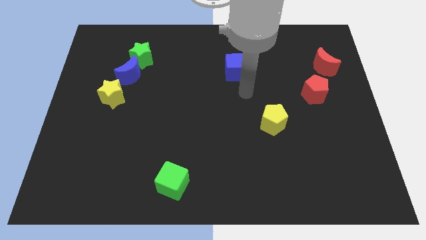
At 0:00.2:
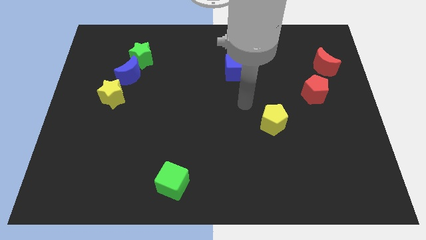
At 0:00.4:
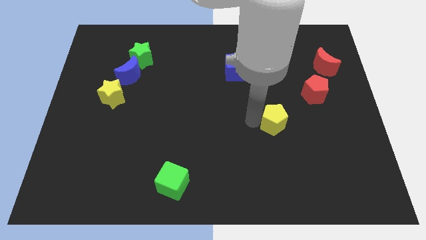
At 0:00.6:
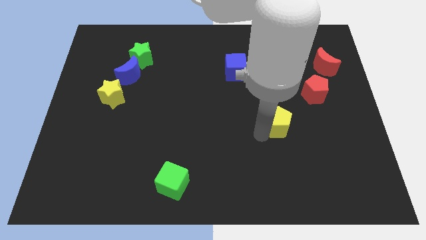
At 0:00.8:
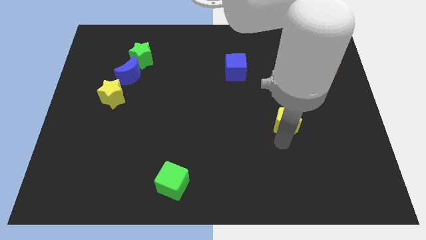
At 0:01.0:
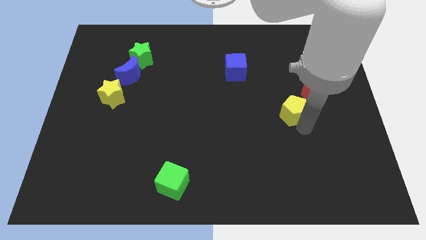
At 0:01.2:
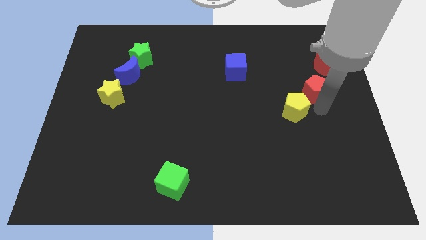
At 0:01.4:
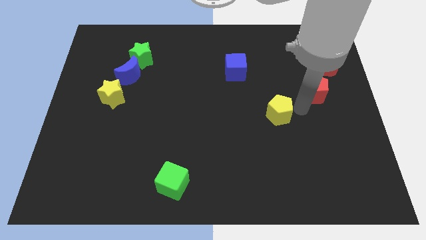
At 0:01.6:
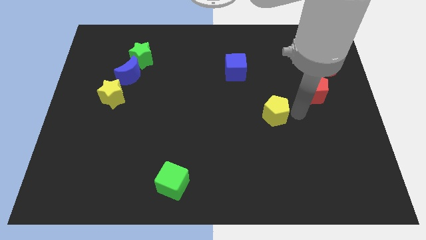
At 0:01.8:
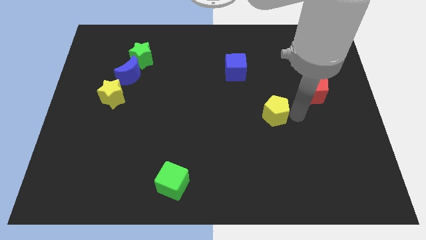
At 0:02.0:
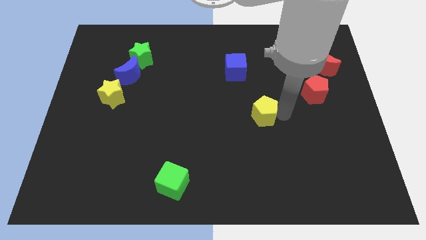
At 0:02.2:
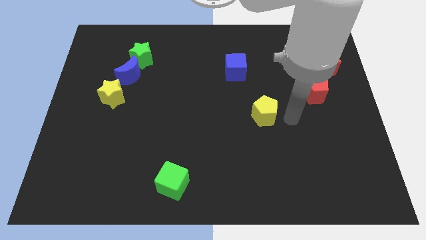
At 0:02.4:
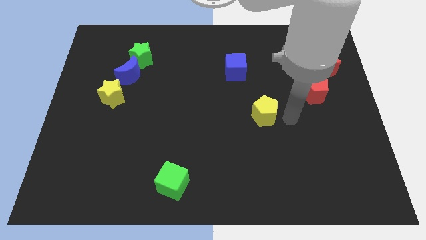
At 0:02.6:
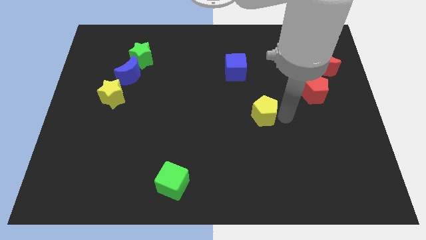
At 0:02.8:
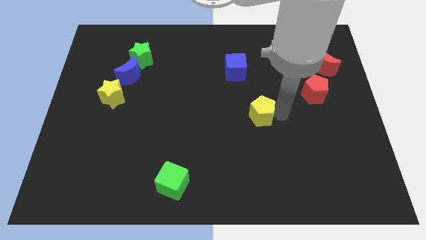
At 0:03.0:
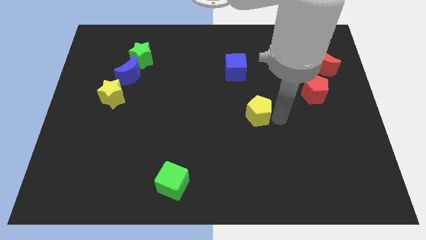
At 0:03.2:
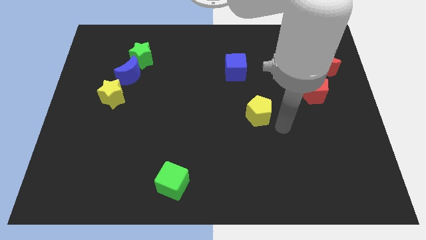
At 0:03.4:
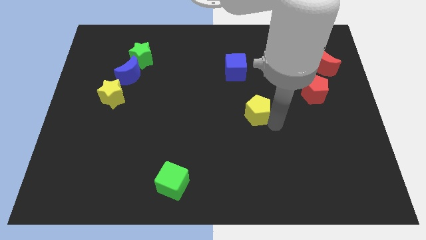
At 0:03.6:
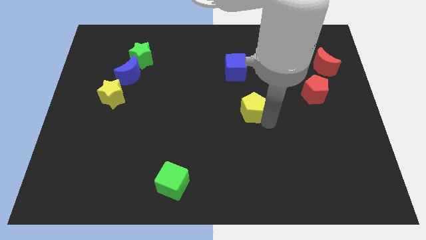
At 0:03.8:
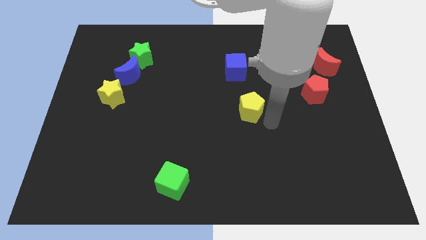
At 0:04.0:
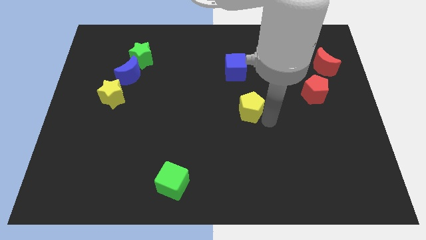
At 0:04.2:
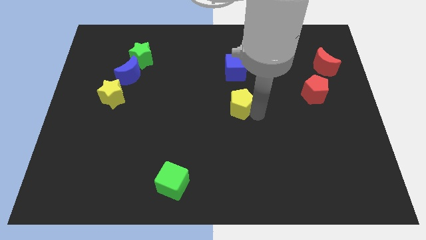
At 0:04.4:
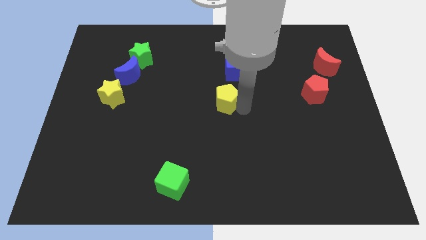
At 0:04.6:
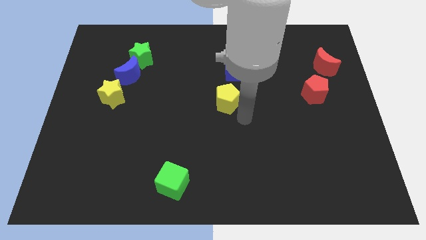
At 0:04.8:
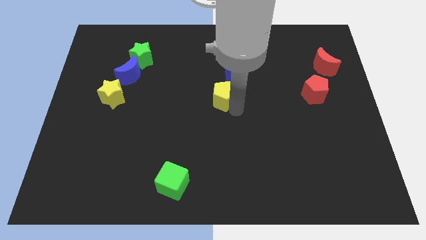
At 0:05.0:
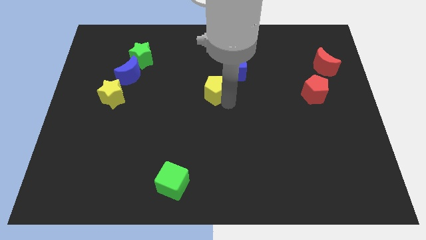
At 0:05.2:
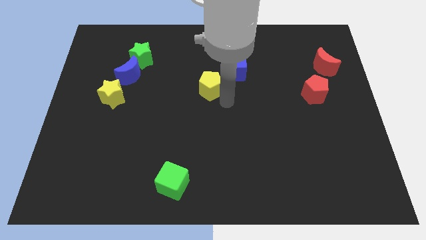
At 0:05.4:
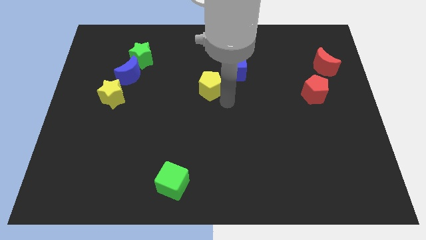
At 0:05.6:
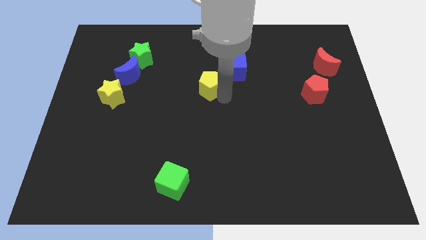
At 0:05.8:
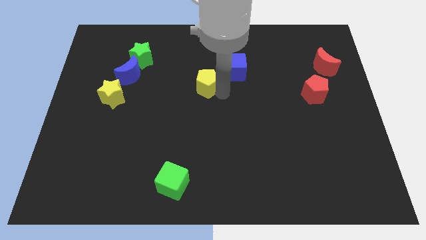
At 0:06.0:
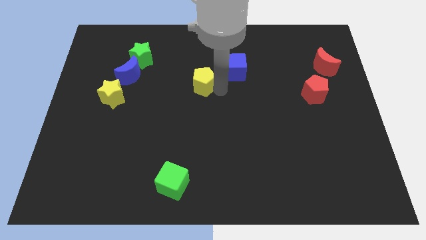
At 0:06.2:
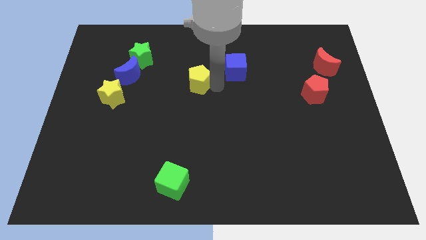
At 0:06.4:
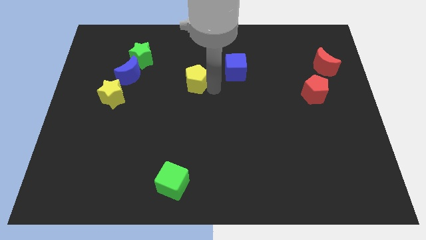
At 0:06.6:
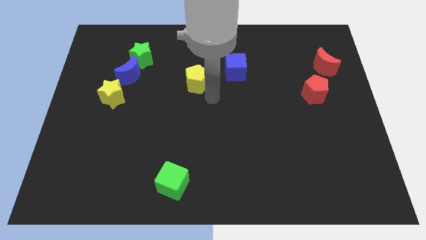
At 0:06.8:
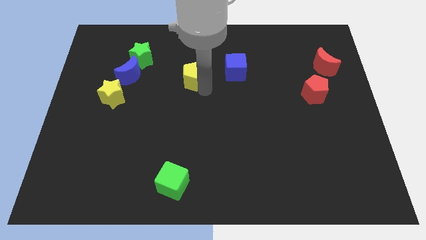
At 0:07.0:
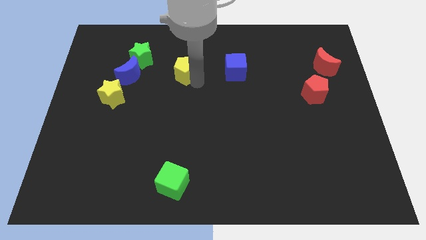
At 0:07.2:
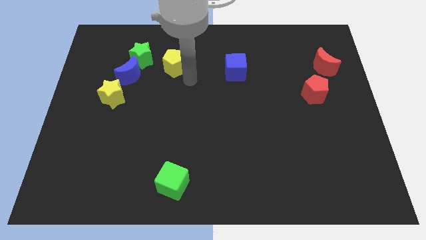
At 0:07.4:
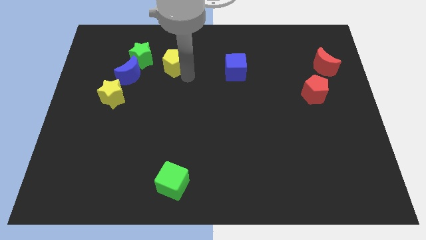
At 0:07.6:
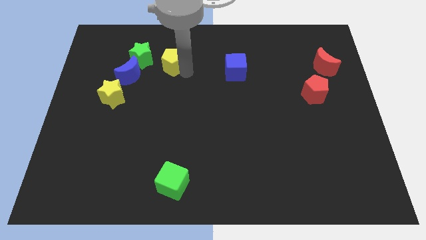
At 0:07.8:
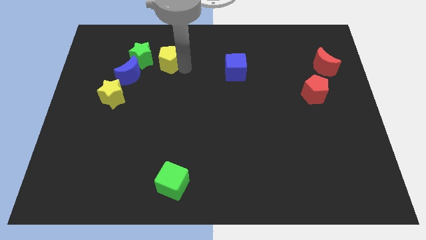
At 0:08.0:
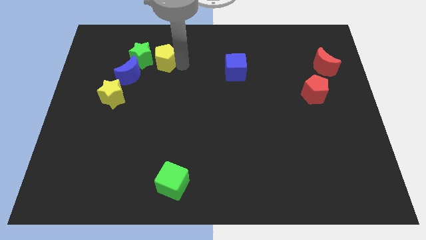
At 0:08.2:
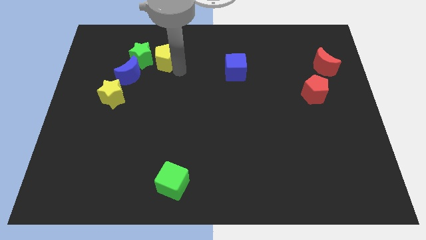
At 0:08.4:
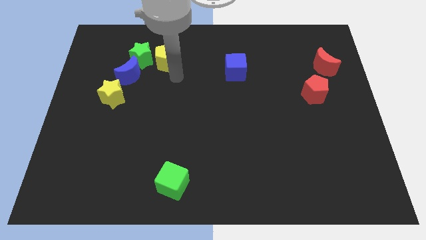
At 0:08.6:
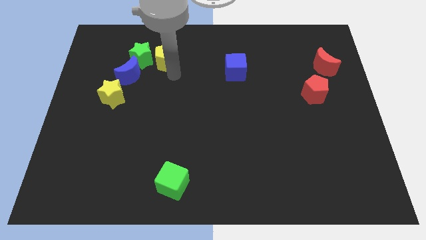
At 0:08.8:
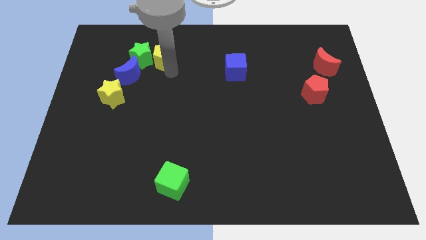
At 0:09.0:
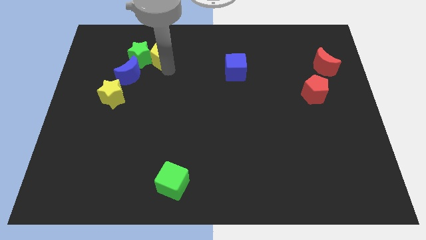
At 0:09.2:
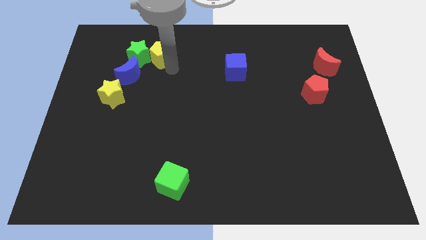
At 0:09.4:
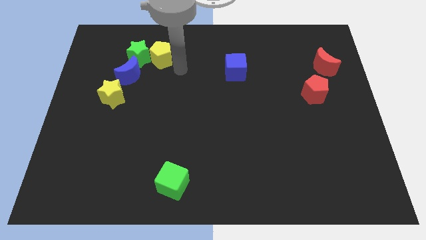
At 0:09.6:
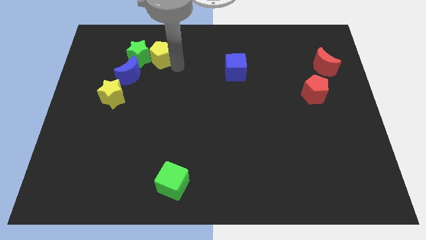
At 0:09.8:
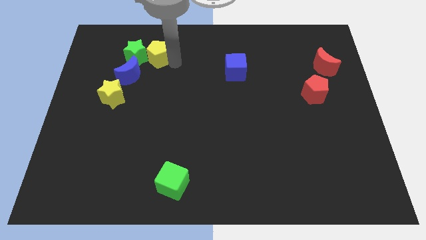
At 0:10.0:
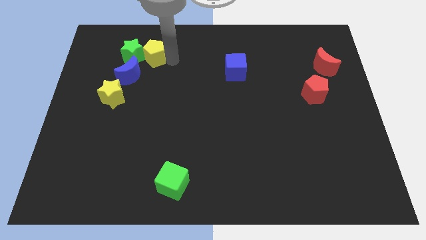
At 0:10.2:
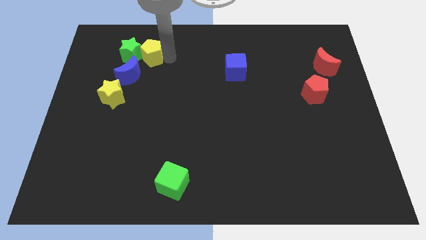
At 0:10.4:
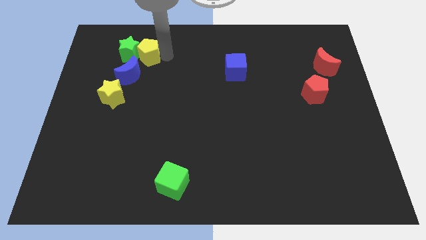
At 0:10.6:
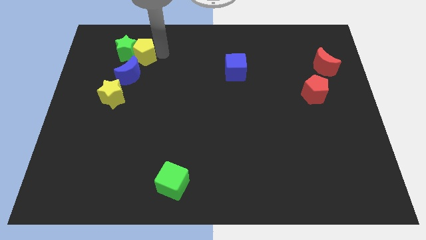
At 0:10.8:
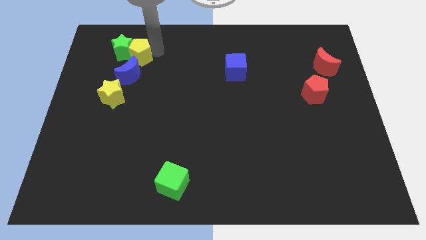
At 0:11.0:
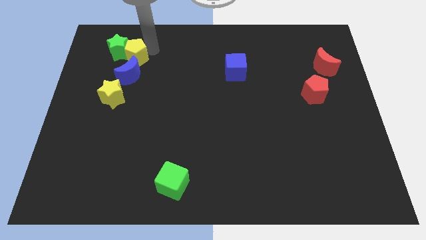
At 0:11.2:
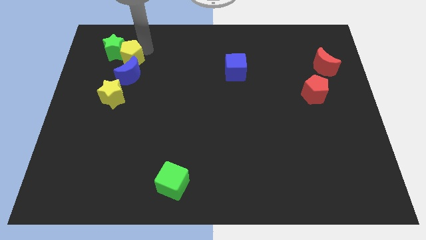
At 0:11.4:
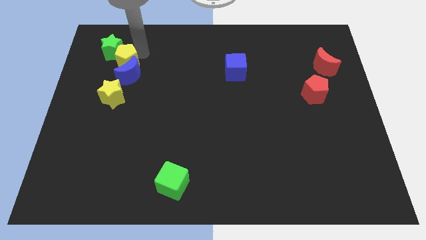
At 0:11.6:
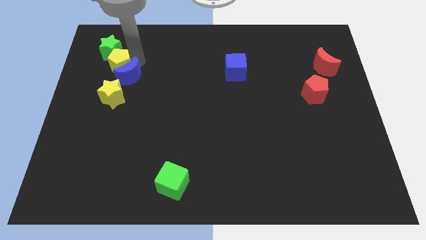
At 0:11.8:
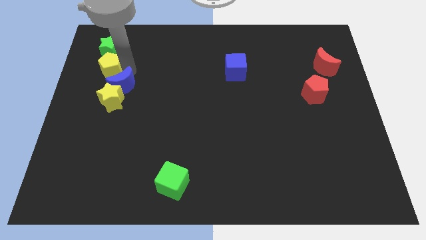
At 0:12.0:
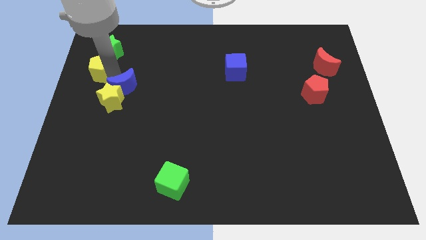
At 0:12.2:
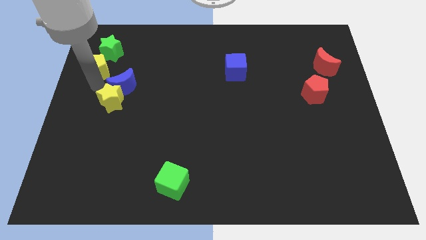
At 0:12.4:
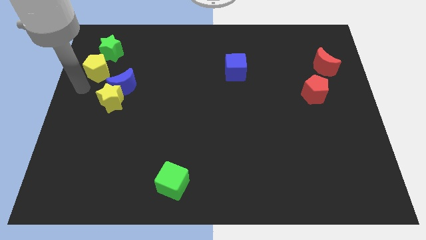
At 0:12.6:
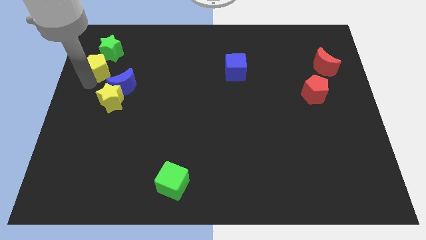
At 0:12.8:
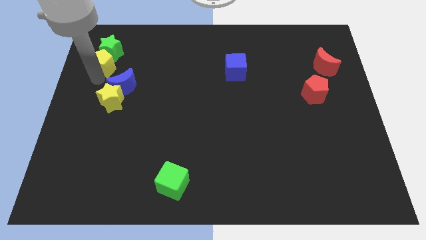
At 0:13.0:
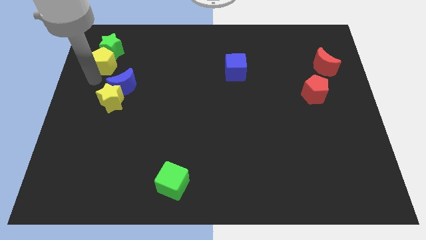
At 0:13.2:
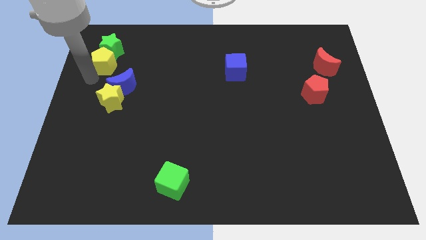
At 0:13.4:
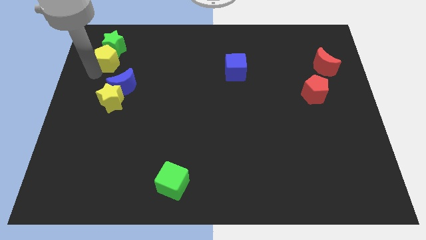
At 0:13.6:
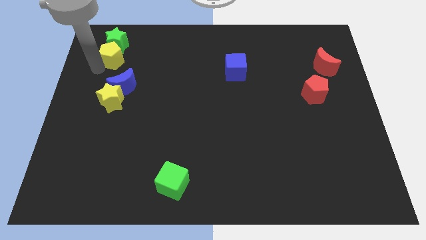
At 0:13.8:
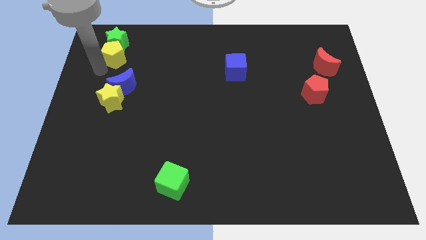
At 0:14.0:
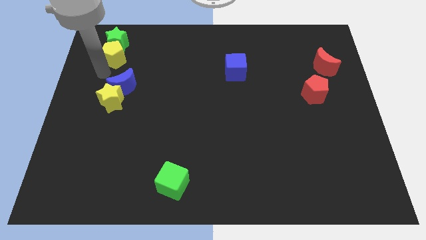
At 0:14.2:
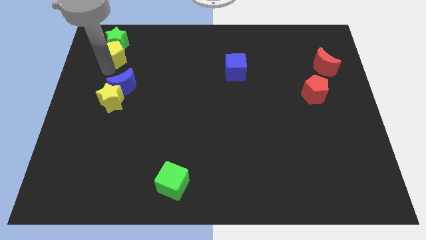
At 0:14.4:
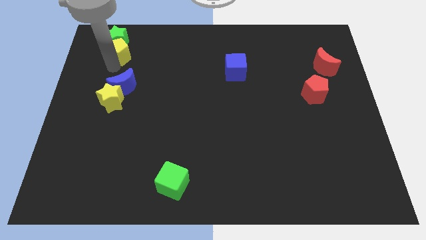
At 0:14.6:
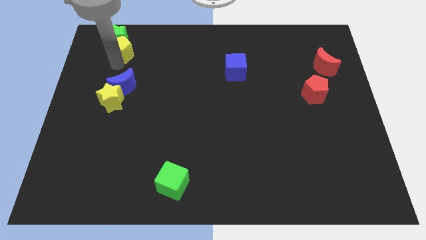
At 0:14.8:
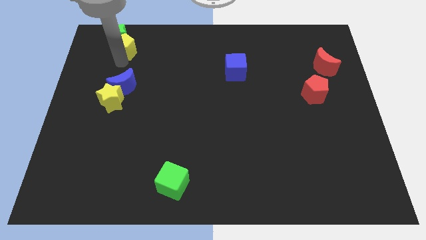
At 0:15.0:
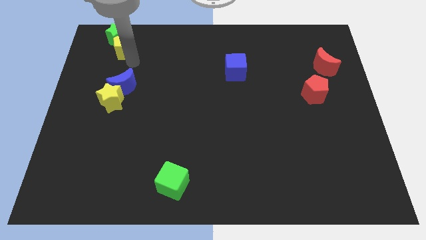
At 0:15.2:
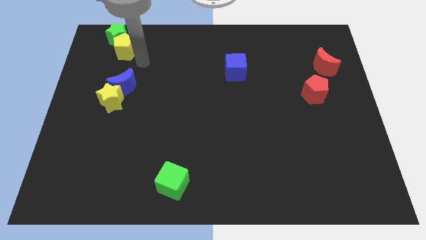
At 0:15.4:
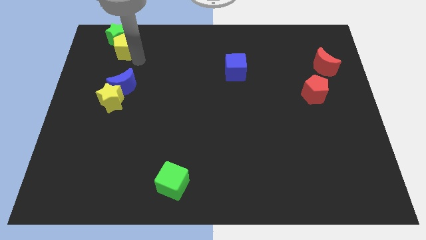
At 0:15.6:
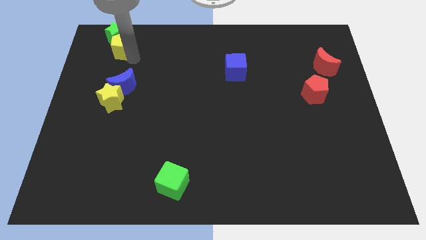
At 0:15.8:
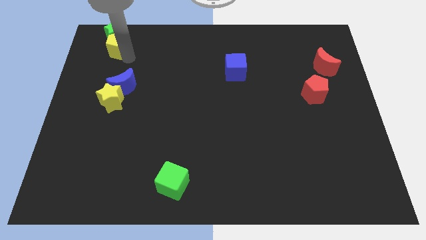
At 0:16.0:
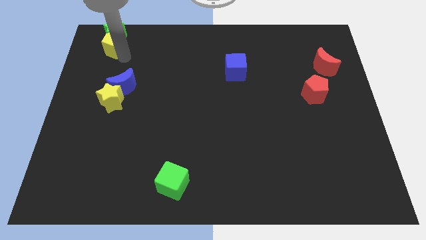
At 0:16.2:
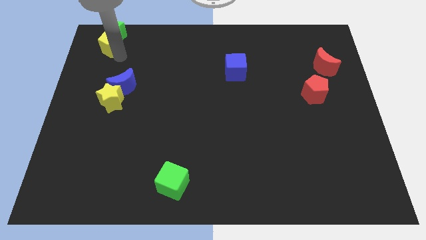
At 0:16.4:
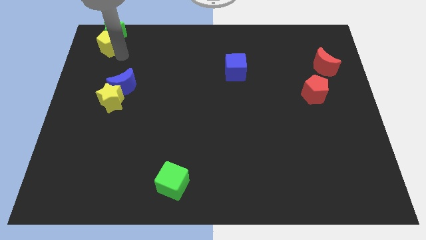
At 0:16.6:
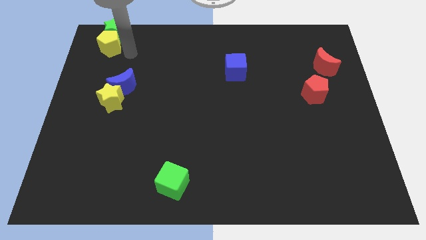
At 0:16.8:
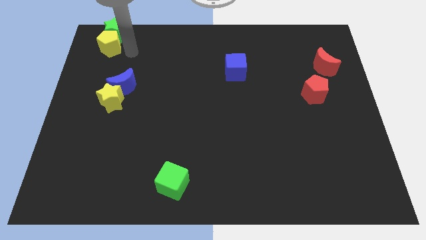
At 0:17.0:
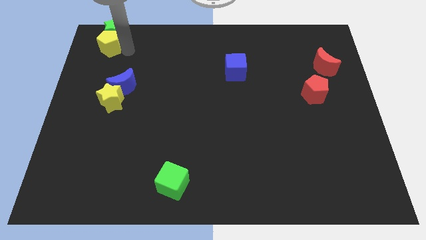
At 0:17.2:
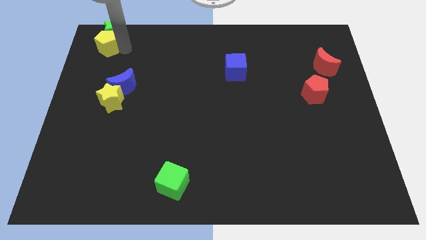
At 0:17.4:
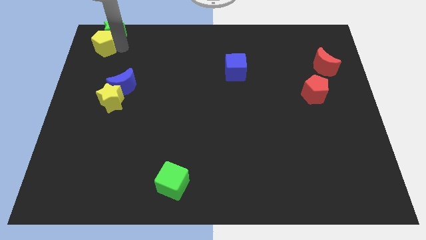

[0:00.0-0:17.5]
push the yellow pentagon to the top left
